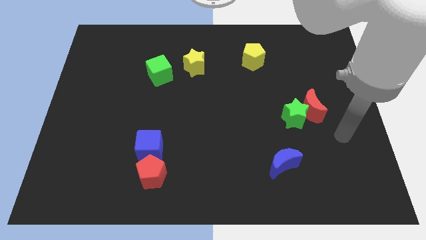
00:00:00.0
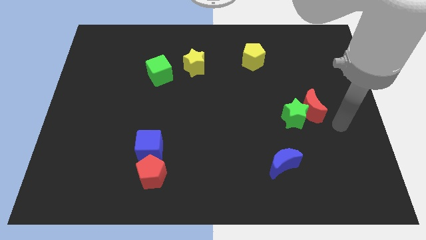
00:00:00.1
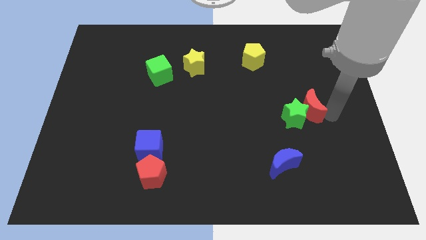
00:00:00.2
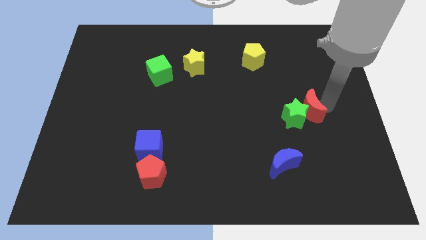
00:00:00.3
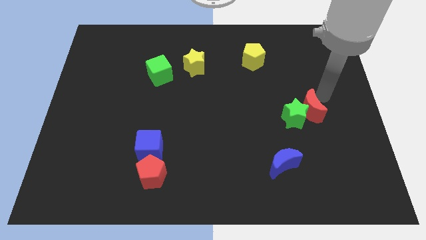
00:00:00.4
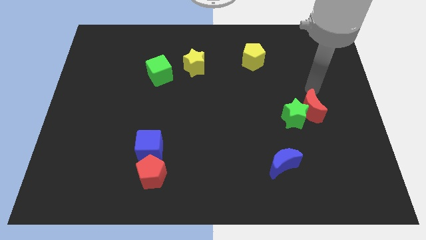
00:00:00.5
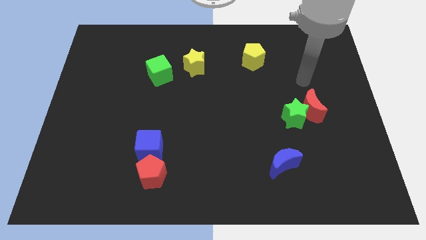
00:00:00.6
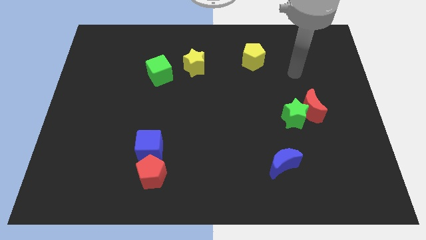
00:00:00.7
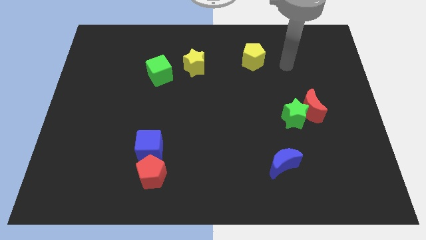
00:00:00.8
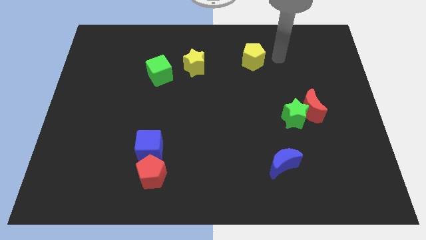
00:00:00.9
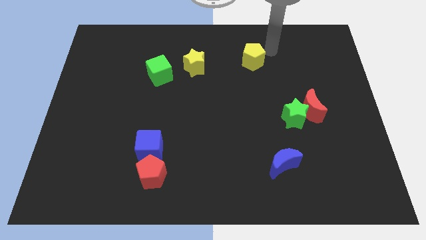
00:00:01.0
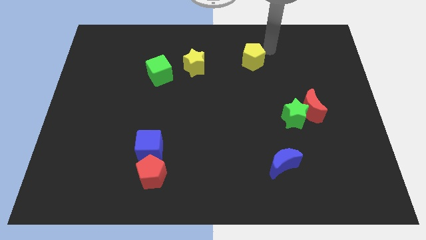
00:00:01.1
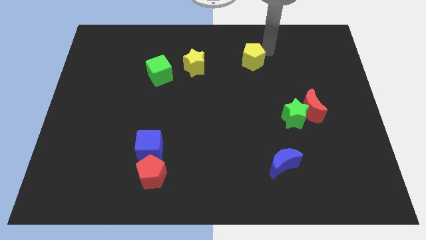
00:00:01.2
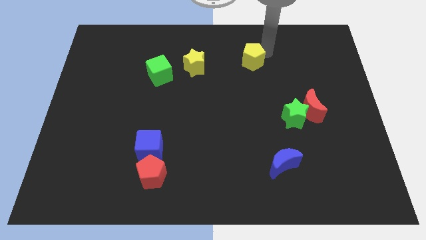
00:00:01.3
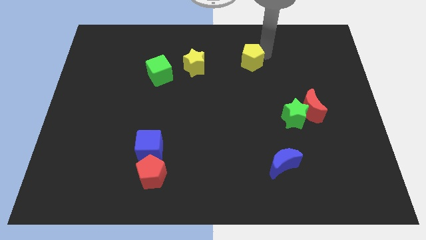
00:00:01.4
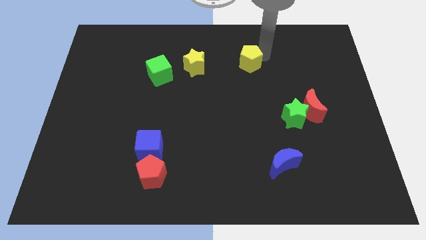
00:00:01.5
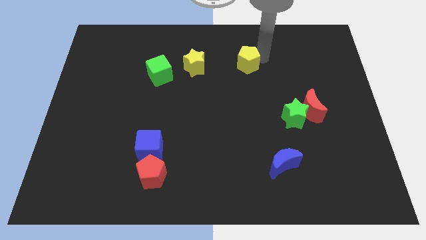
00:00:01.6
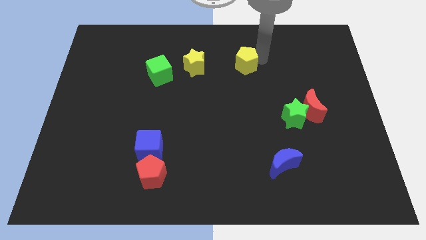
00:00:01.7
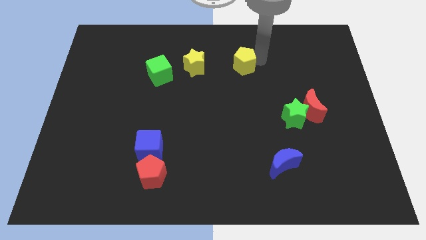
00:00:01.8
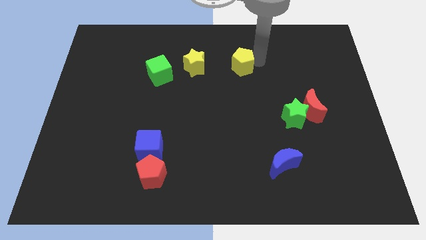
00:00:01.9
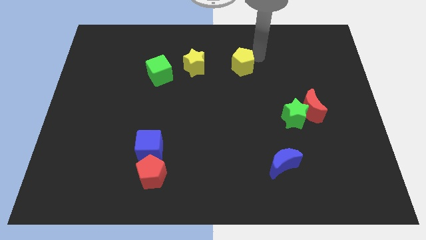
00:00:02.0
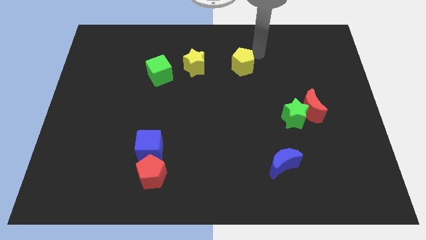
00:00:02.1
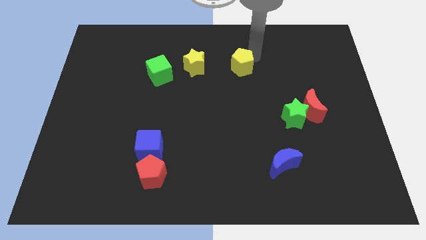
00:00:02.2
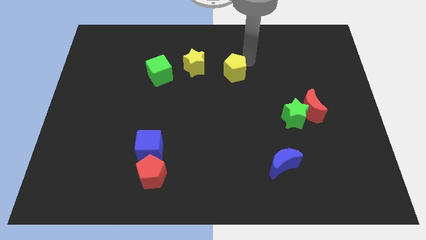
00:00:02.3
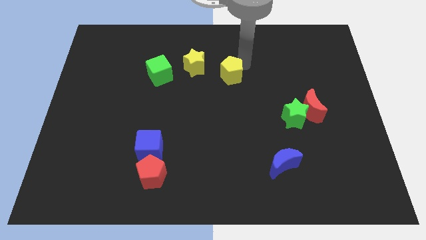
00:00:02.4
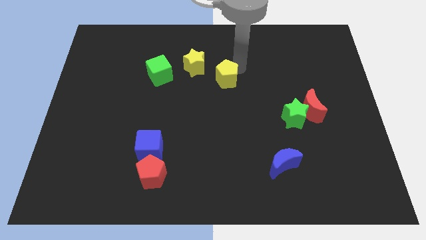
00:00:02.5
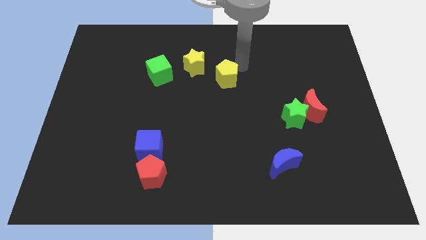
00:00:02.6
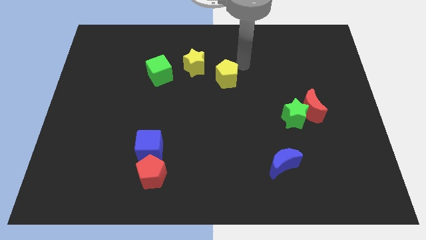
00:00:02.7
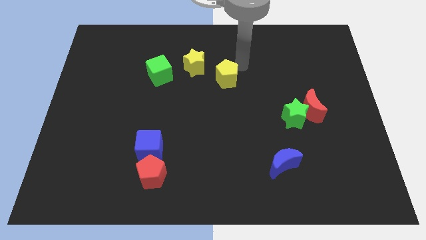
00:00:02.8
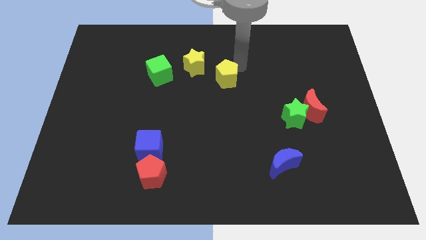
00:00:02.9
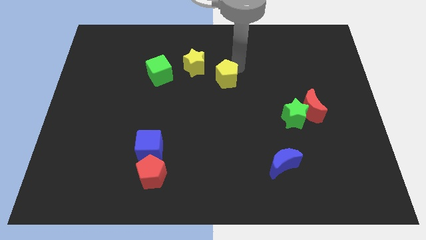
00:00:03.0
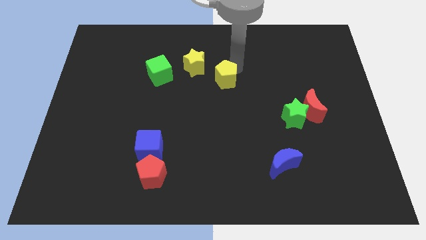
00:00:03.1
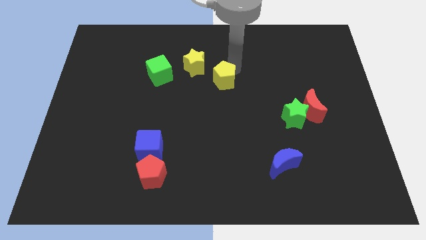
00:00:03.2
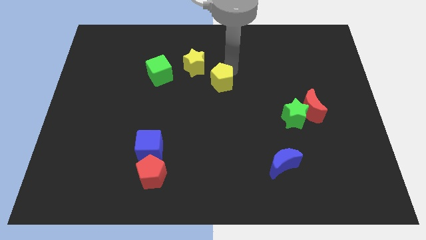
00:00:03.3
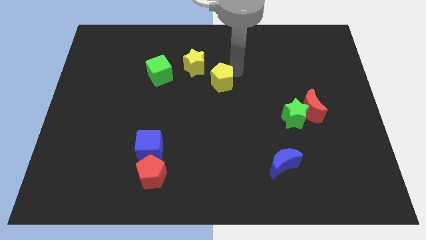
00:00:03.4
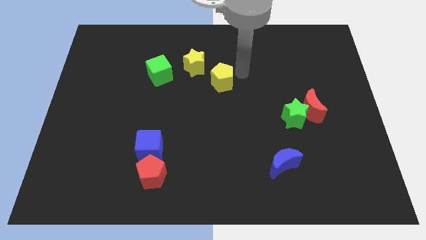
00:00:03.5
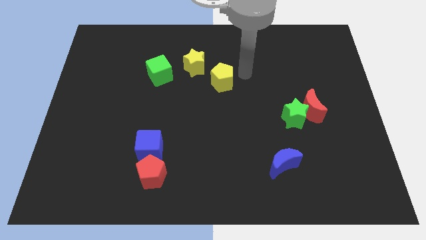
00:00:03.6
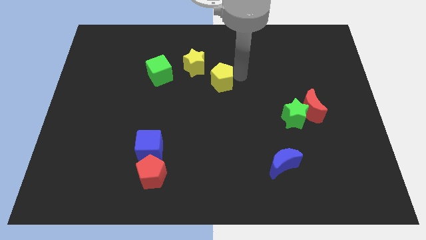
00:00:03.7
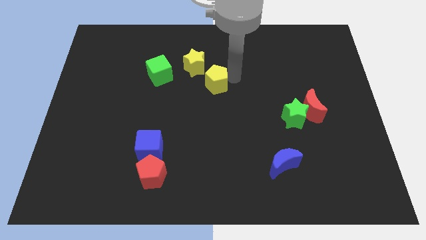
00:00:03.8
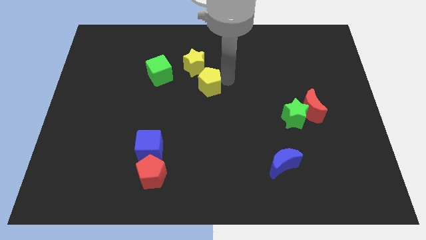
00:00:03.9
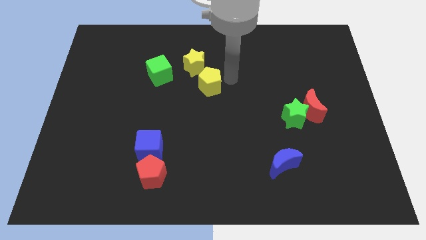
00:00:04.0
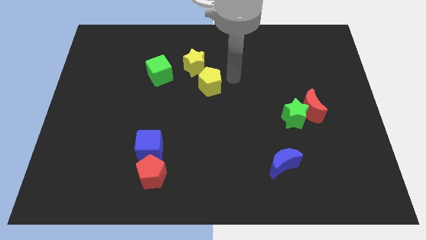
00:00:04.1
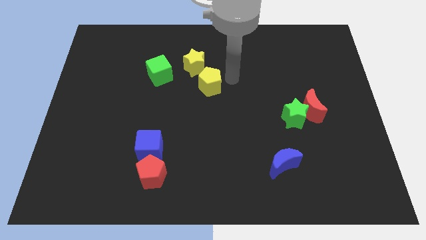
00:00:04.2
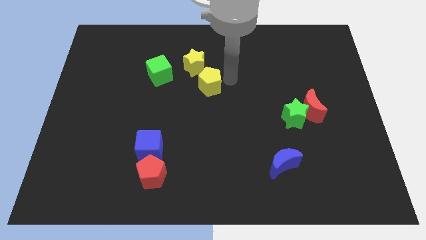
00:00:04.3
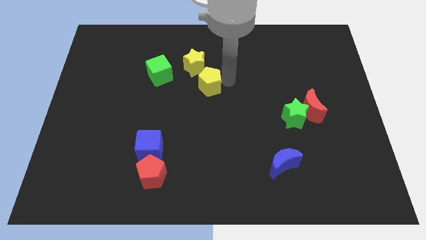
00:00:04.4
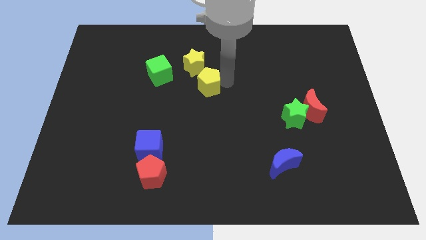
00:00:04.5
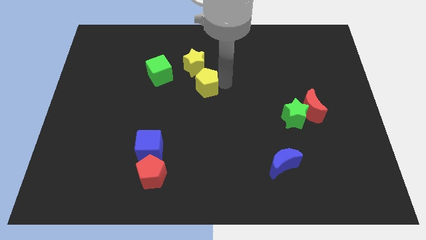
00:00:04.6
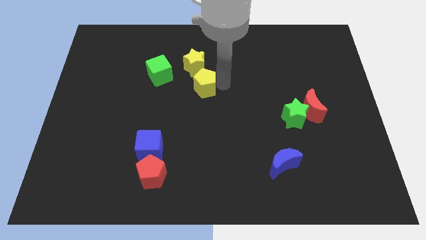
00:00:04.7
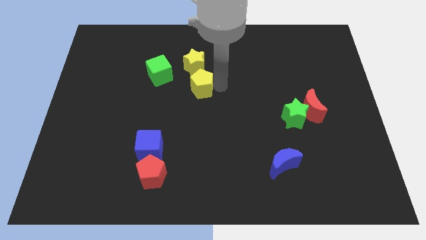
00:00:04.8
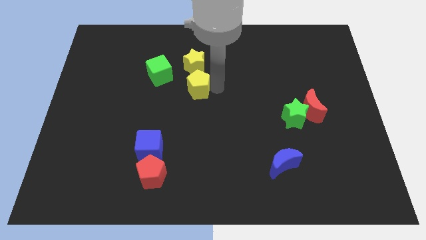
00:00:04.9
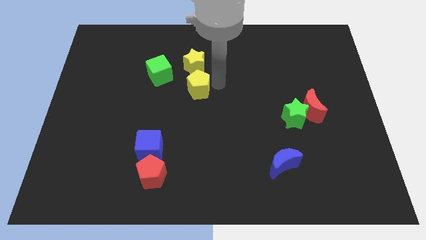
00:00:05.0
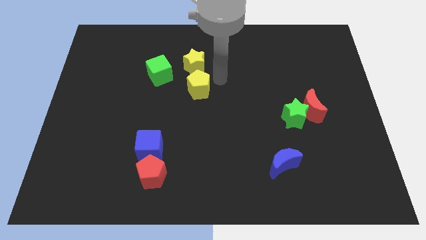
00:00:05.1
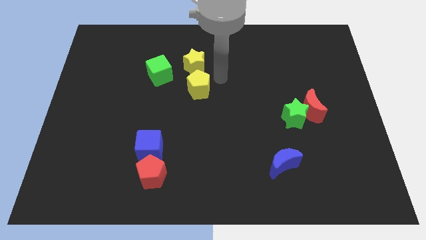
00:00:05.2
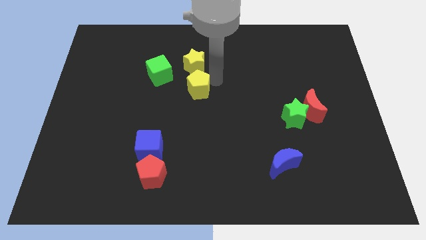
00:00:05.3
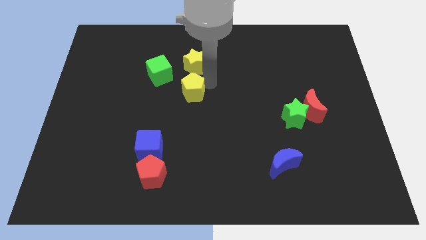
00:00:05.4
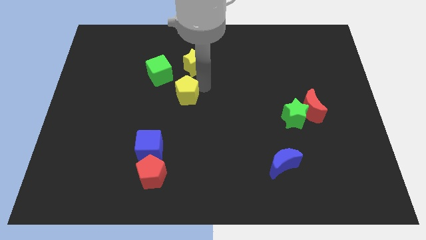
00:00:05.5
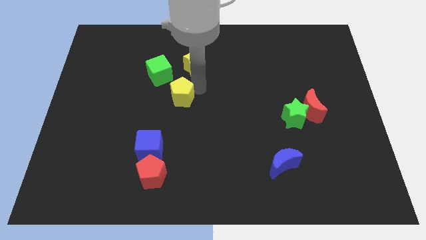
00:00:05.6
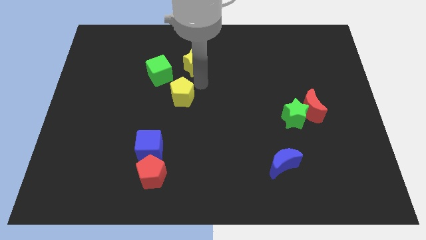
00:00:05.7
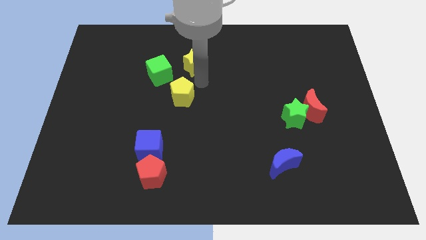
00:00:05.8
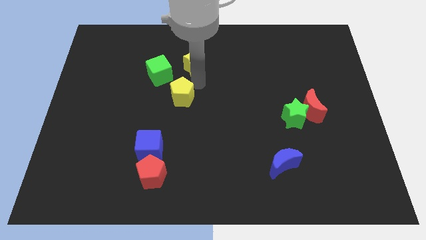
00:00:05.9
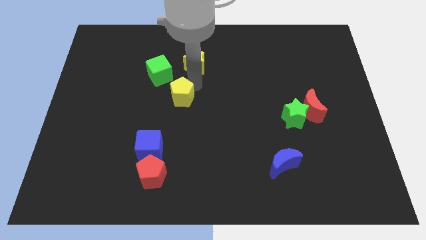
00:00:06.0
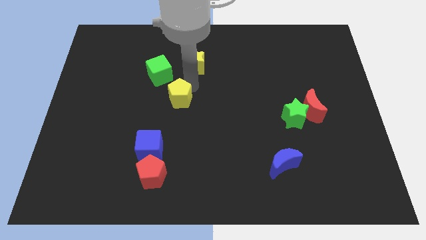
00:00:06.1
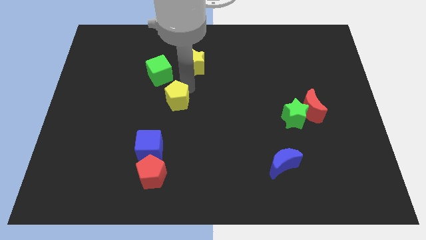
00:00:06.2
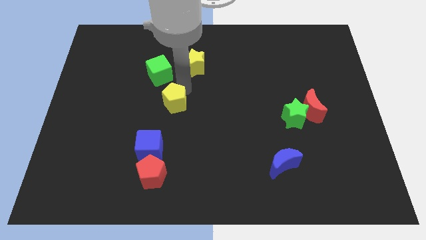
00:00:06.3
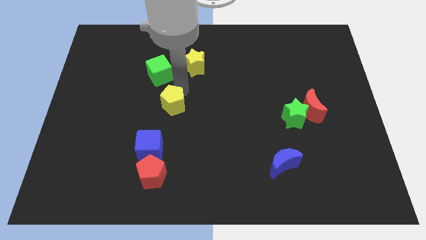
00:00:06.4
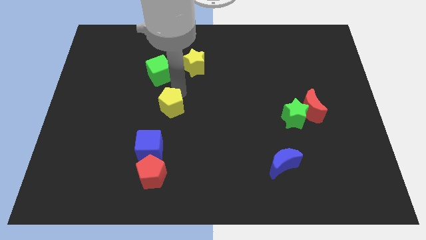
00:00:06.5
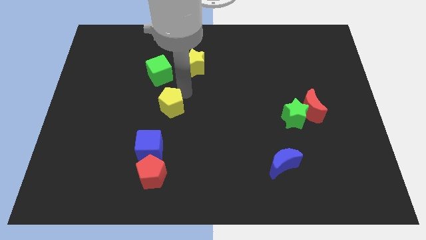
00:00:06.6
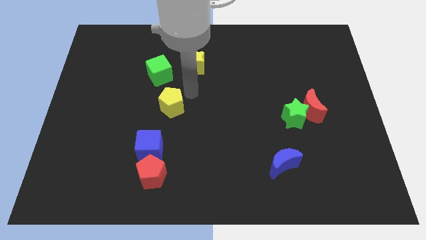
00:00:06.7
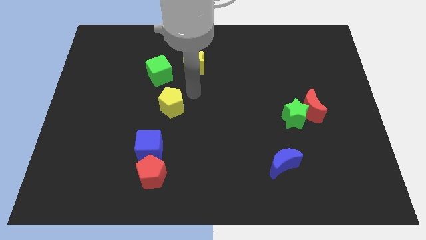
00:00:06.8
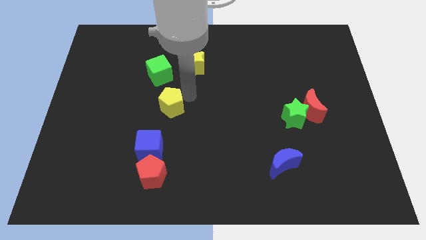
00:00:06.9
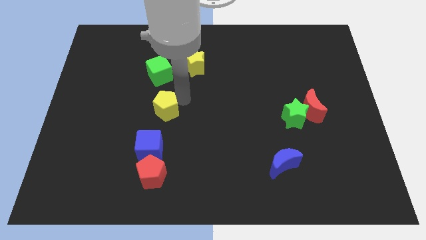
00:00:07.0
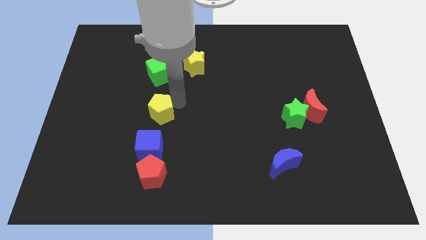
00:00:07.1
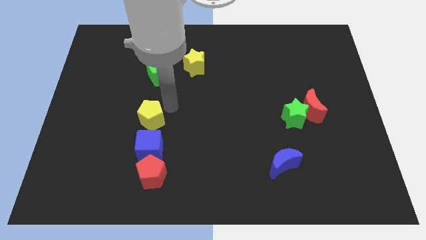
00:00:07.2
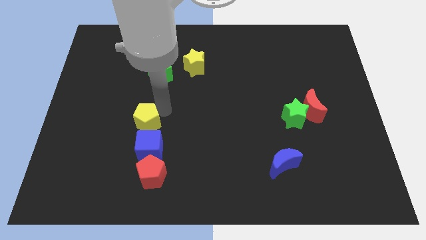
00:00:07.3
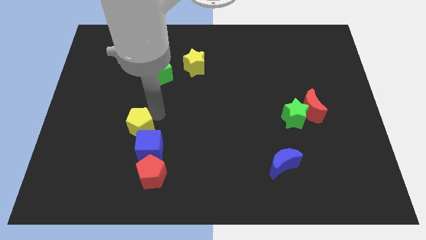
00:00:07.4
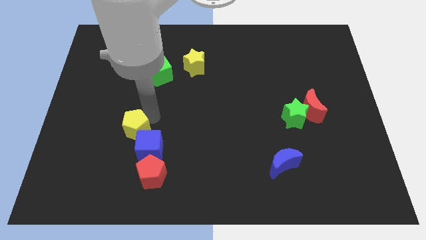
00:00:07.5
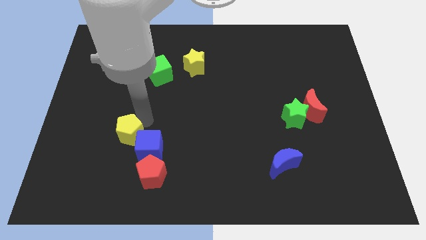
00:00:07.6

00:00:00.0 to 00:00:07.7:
push the yellow pentagon to the top left side of the red pentagon
